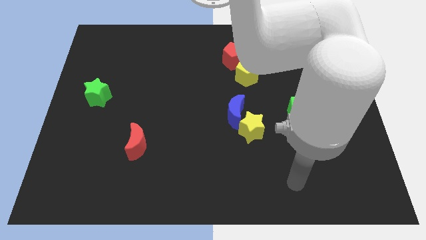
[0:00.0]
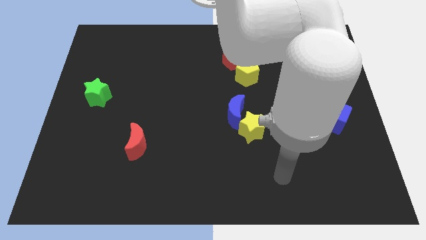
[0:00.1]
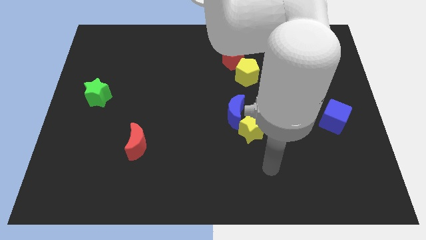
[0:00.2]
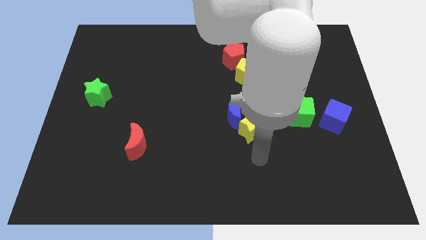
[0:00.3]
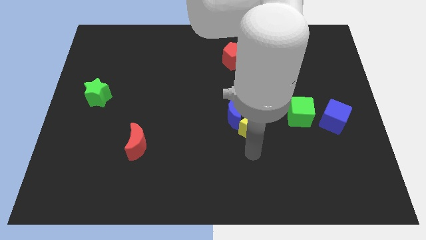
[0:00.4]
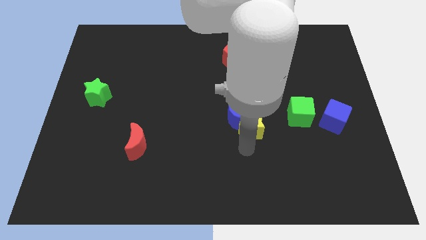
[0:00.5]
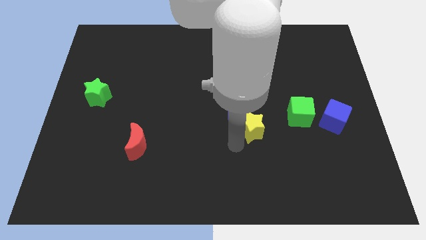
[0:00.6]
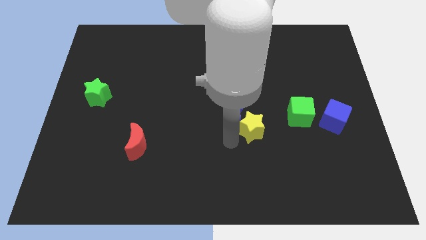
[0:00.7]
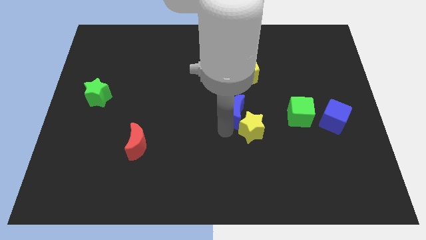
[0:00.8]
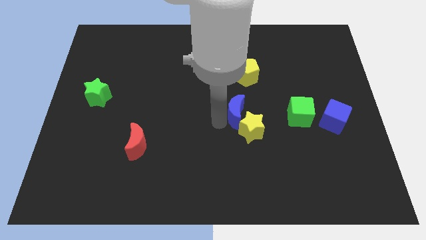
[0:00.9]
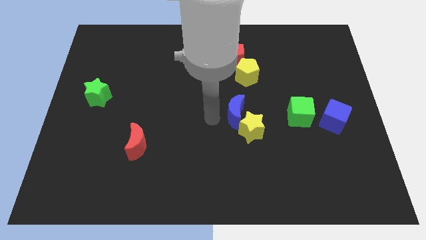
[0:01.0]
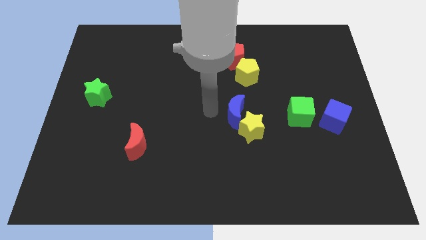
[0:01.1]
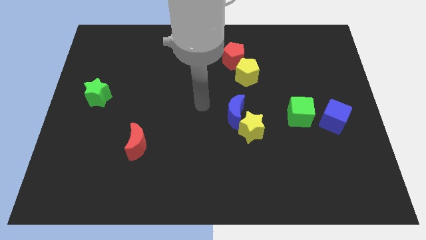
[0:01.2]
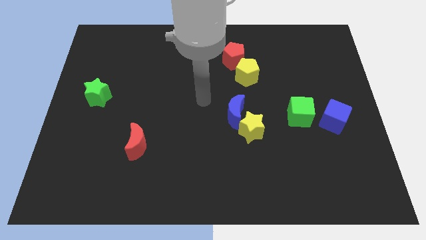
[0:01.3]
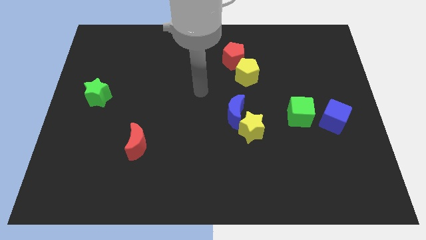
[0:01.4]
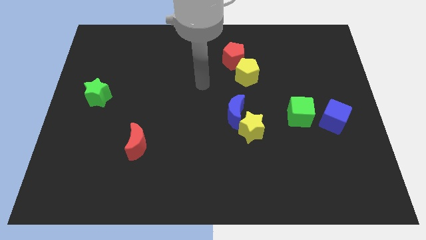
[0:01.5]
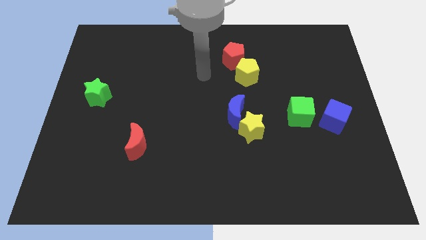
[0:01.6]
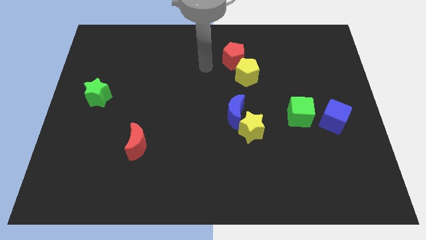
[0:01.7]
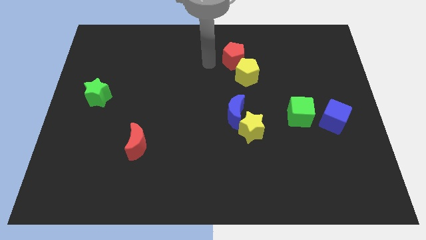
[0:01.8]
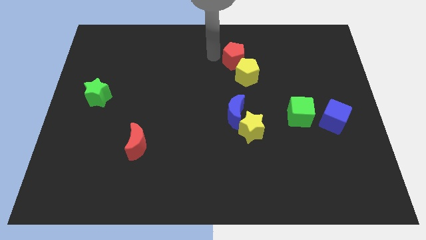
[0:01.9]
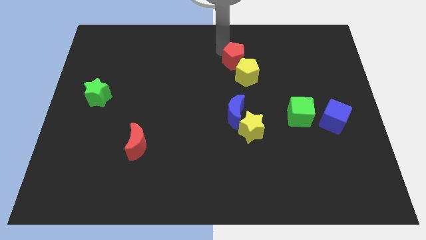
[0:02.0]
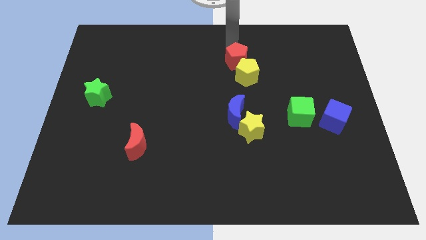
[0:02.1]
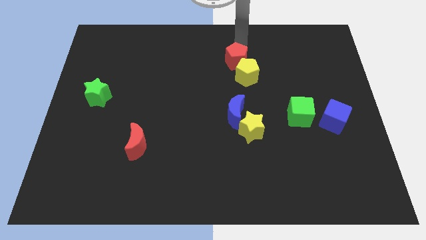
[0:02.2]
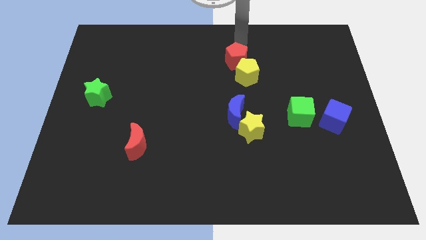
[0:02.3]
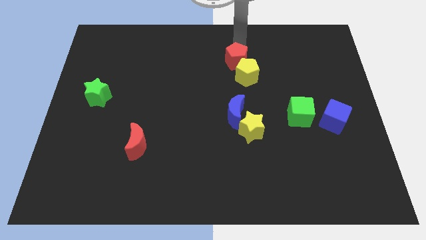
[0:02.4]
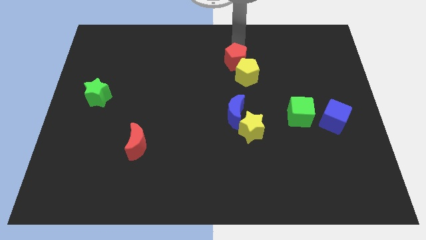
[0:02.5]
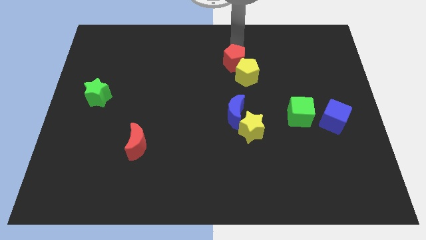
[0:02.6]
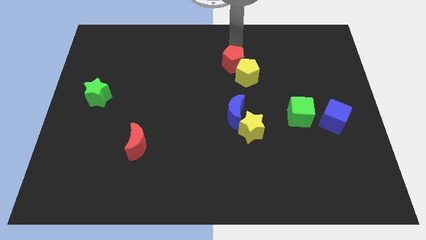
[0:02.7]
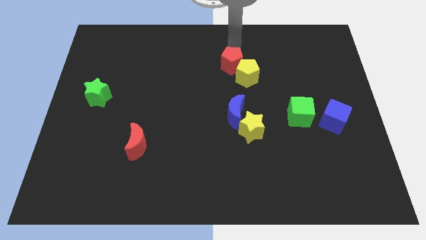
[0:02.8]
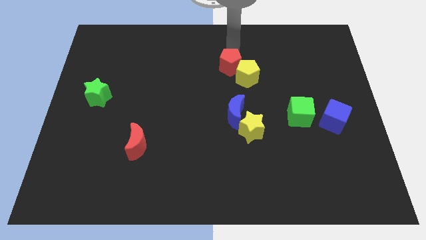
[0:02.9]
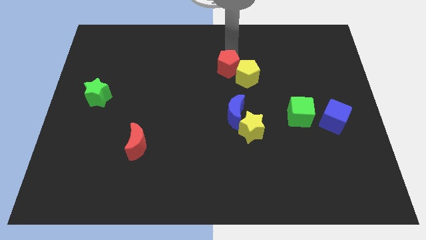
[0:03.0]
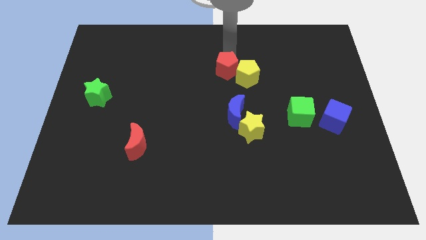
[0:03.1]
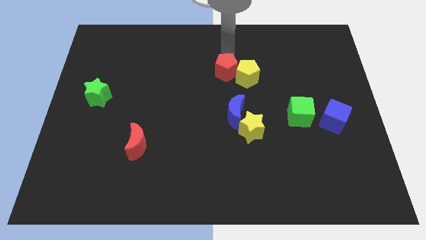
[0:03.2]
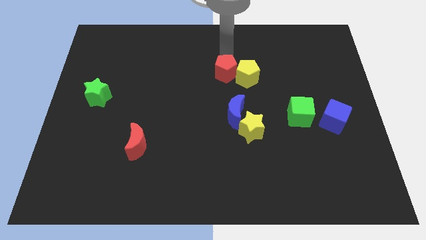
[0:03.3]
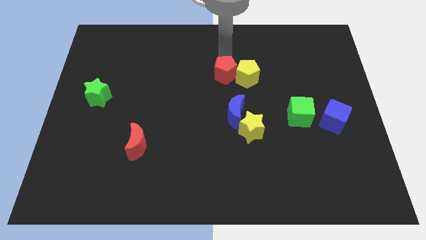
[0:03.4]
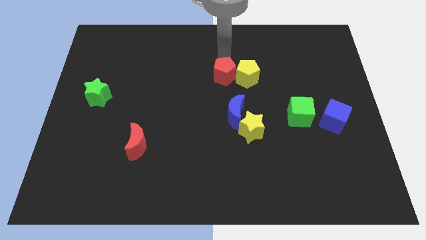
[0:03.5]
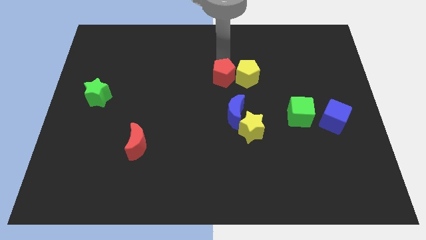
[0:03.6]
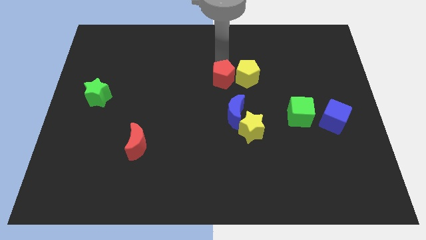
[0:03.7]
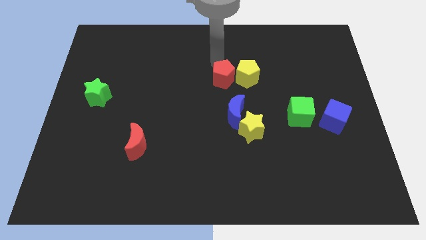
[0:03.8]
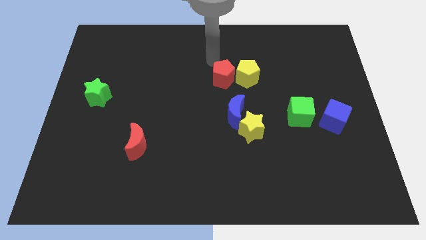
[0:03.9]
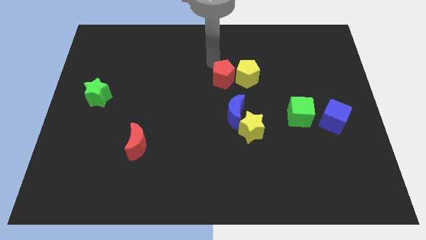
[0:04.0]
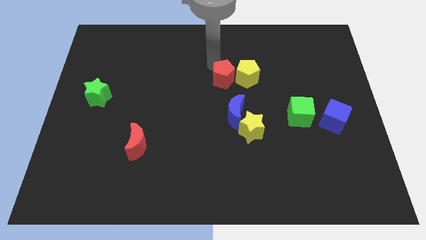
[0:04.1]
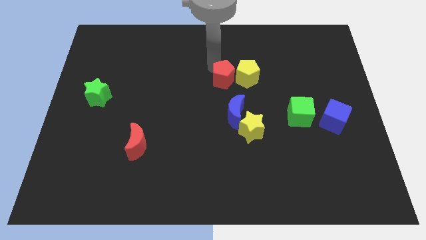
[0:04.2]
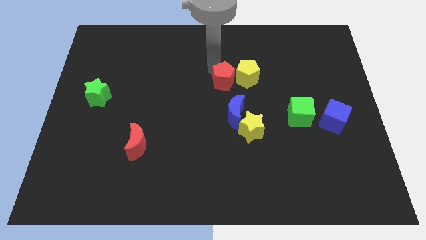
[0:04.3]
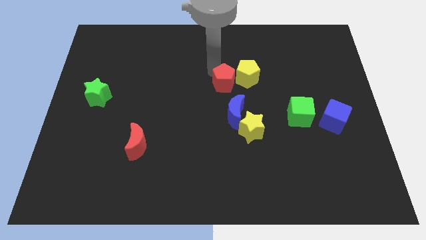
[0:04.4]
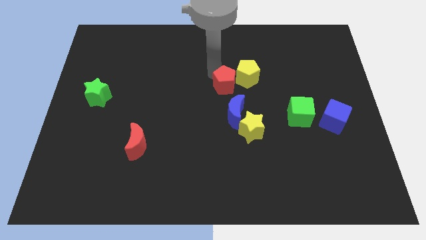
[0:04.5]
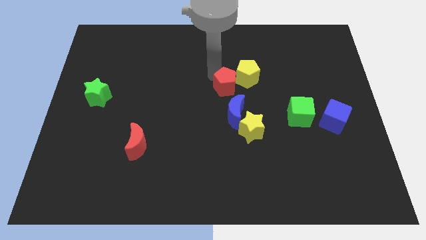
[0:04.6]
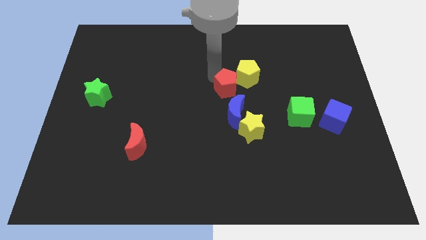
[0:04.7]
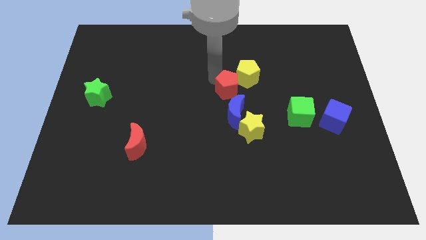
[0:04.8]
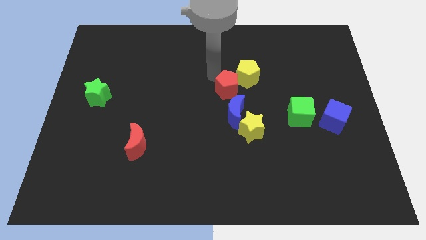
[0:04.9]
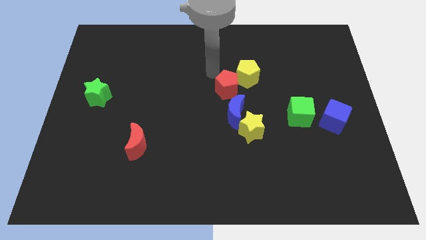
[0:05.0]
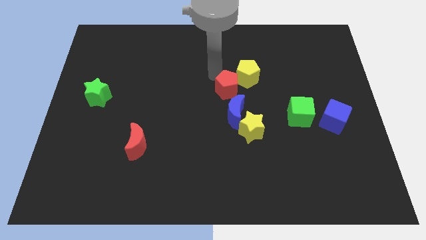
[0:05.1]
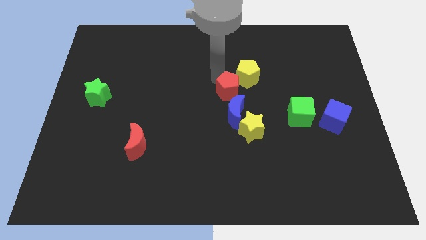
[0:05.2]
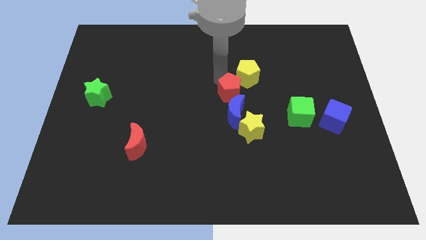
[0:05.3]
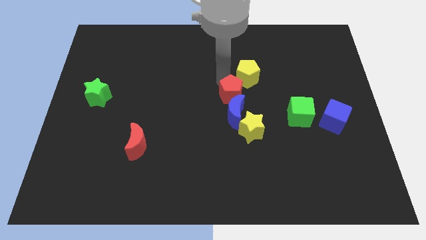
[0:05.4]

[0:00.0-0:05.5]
move the red pentagon close to the blue moon

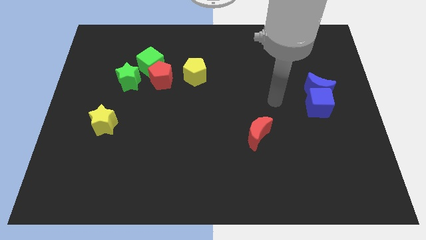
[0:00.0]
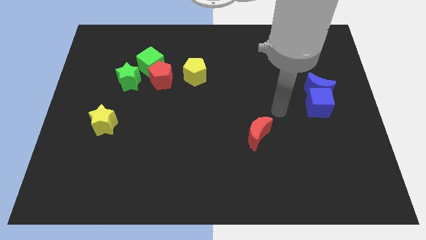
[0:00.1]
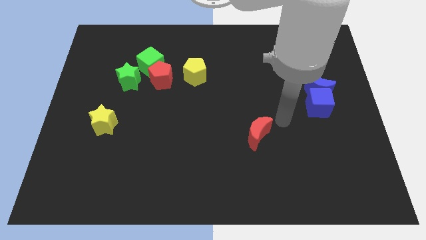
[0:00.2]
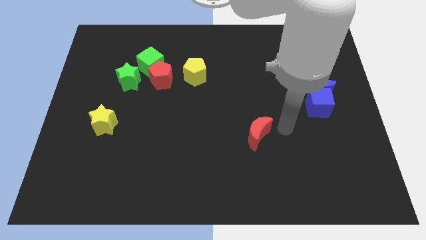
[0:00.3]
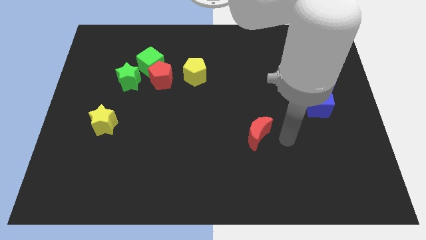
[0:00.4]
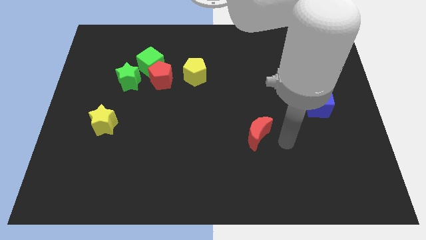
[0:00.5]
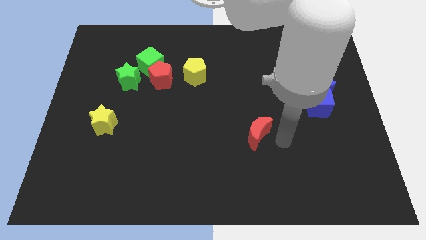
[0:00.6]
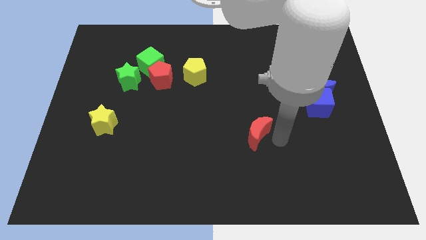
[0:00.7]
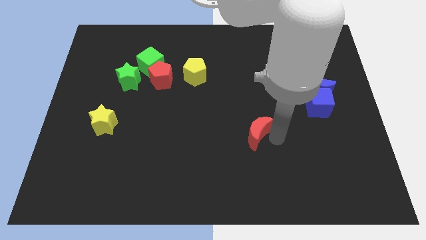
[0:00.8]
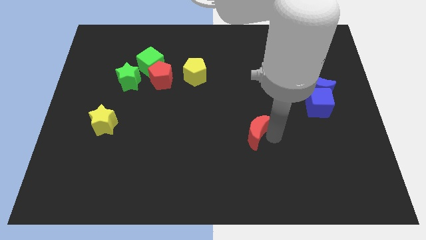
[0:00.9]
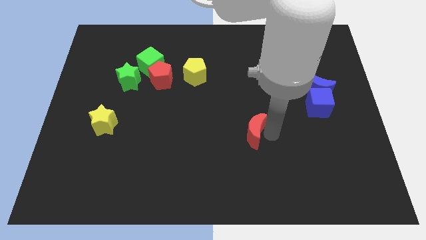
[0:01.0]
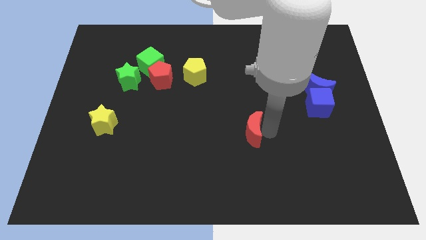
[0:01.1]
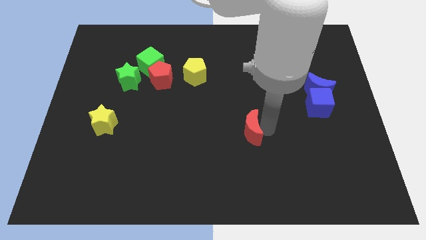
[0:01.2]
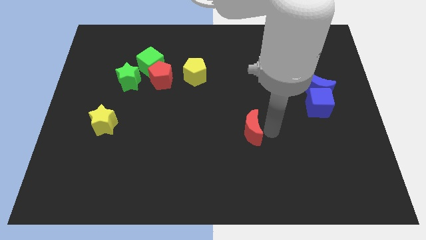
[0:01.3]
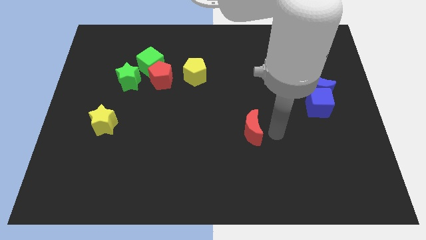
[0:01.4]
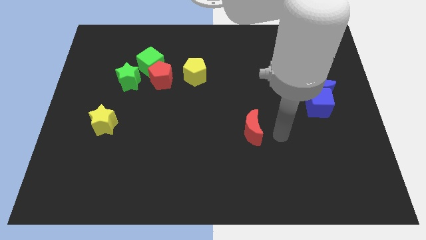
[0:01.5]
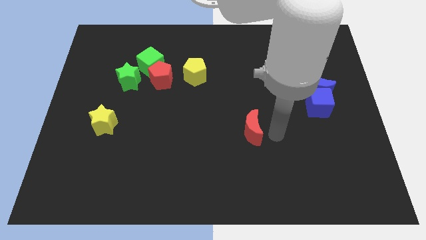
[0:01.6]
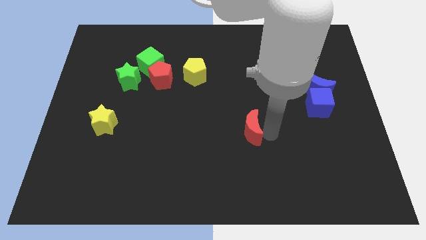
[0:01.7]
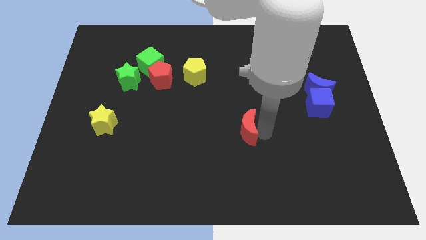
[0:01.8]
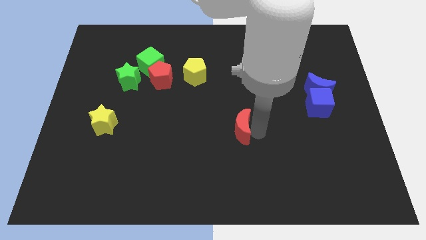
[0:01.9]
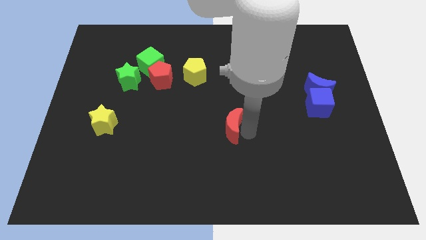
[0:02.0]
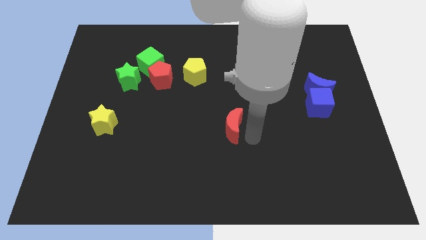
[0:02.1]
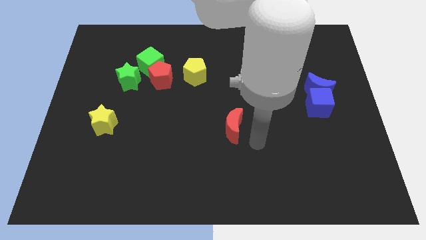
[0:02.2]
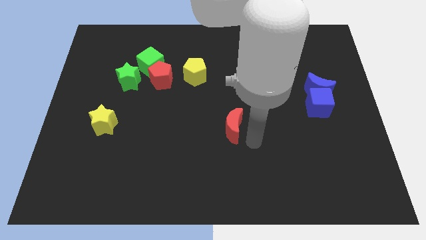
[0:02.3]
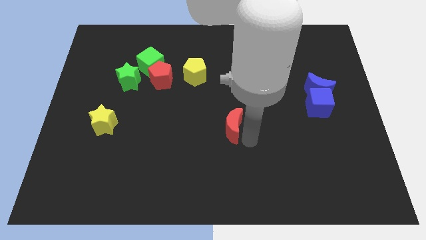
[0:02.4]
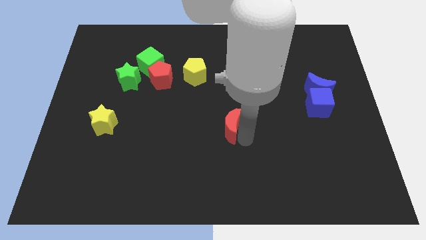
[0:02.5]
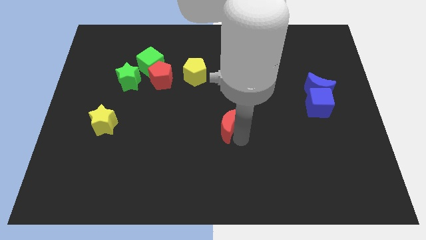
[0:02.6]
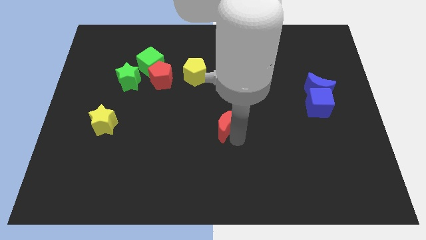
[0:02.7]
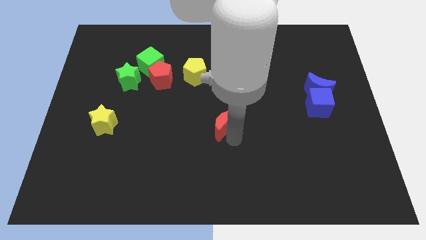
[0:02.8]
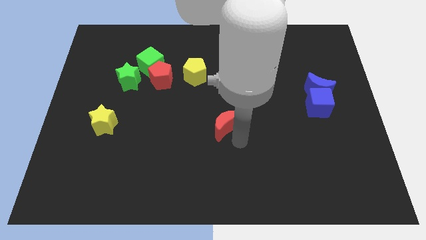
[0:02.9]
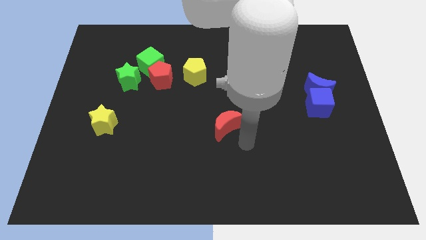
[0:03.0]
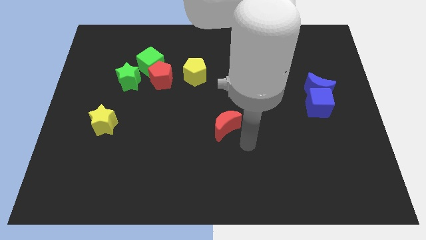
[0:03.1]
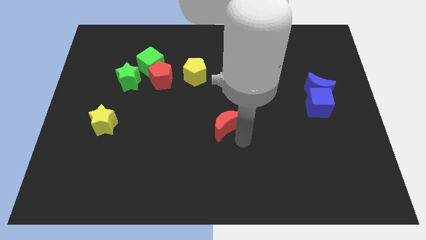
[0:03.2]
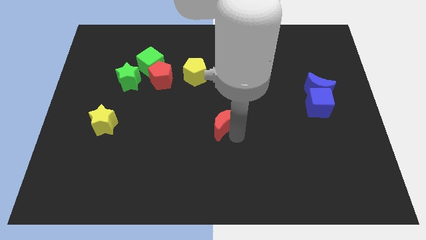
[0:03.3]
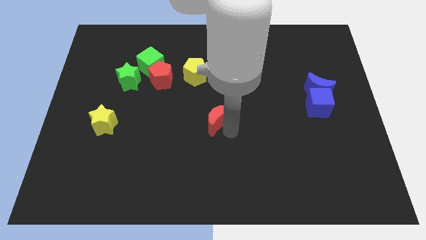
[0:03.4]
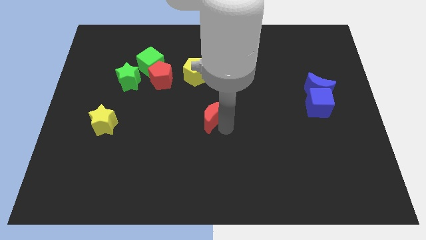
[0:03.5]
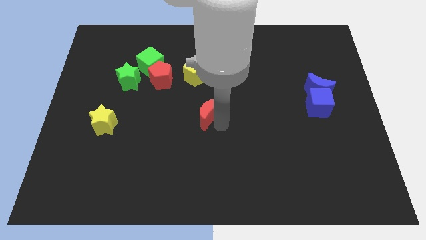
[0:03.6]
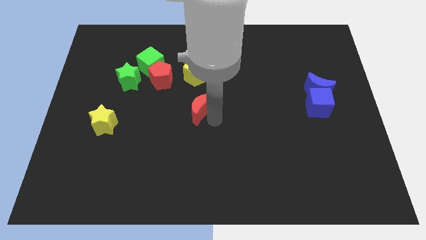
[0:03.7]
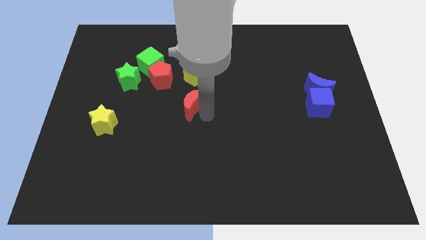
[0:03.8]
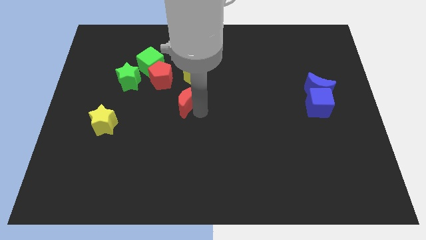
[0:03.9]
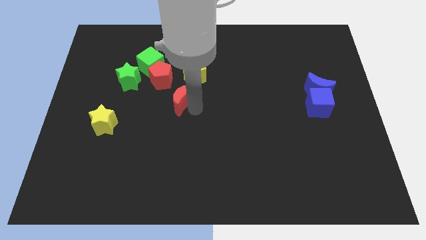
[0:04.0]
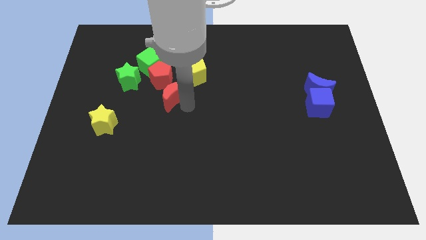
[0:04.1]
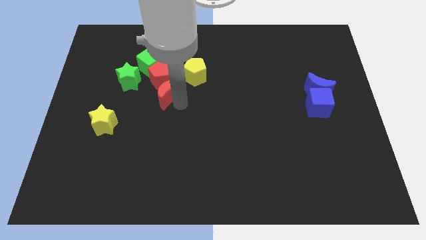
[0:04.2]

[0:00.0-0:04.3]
slide the red moon next to the red pentagon
